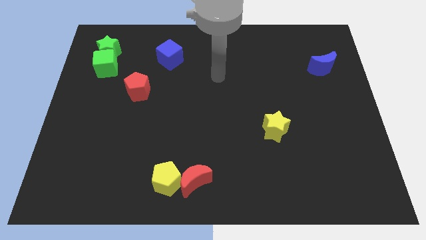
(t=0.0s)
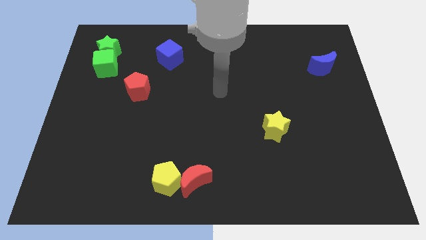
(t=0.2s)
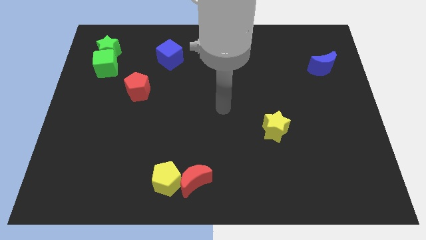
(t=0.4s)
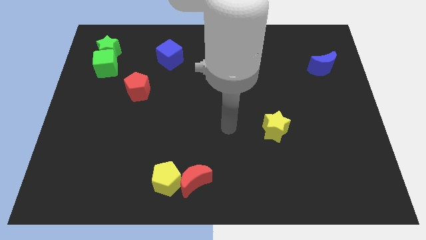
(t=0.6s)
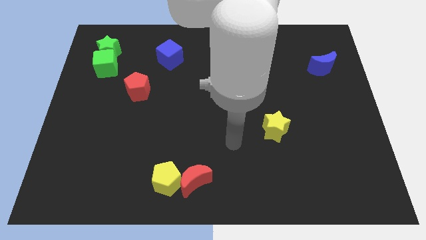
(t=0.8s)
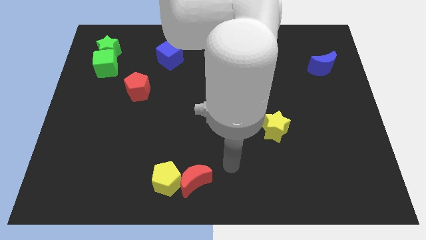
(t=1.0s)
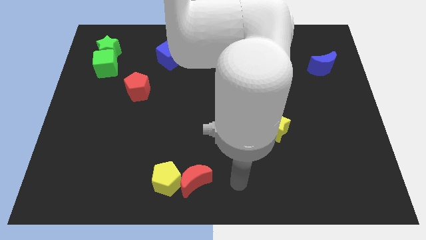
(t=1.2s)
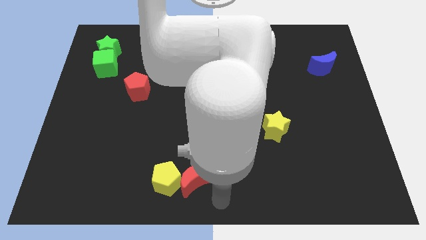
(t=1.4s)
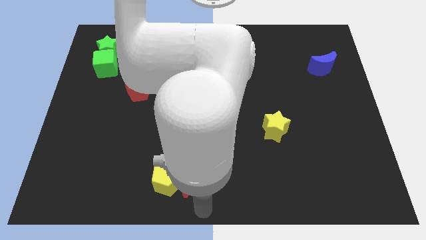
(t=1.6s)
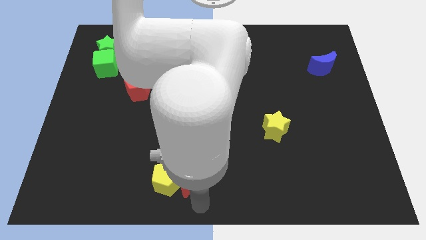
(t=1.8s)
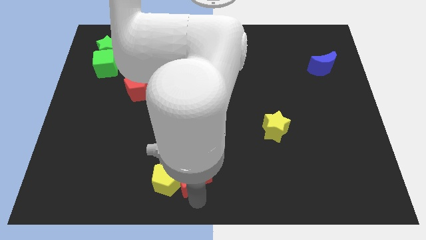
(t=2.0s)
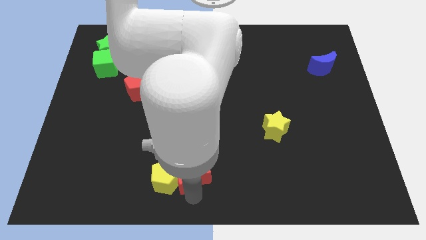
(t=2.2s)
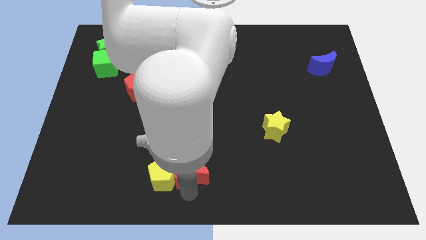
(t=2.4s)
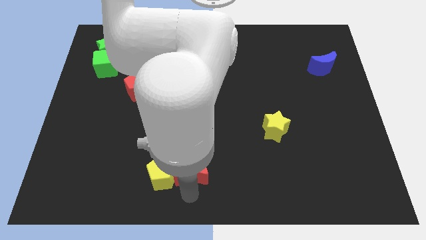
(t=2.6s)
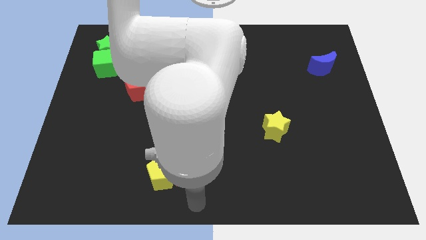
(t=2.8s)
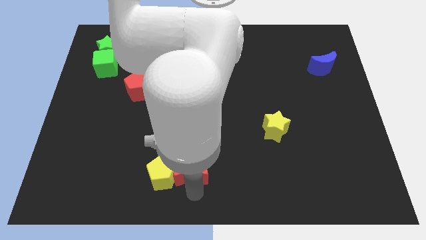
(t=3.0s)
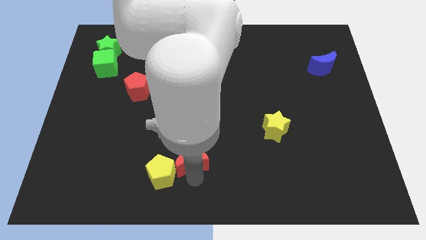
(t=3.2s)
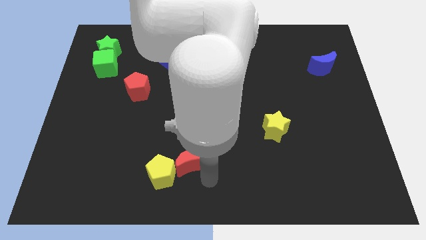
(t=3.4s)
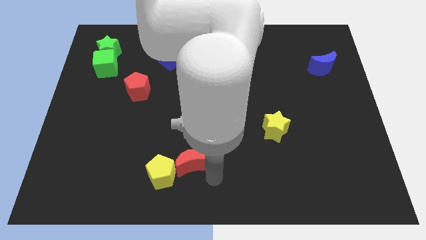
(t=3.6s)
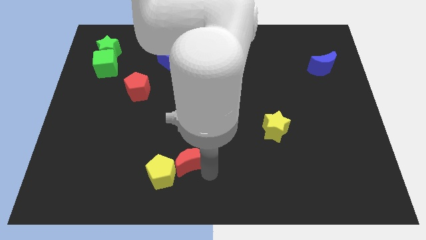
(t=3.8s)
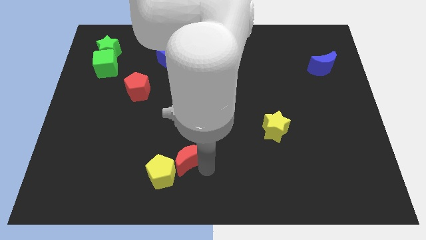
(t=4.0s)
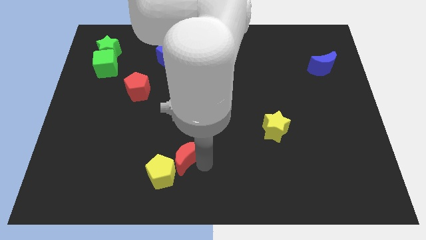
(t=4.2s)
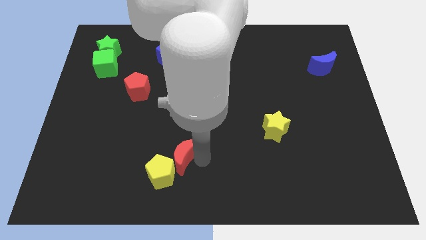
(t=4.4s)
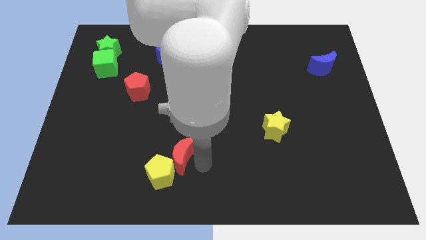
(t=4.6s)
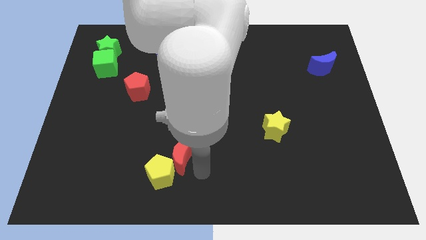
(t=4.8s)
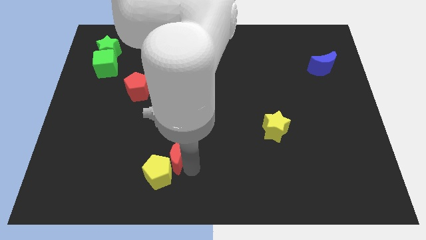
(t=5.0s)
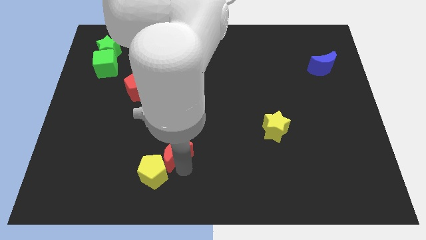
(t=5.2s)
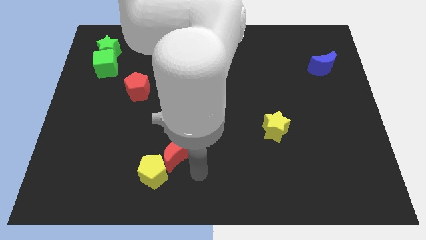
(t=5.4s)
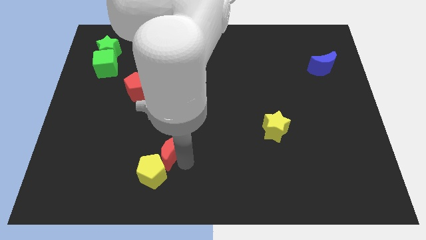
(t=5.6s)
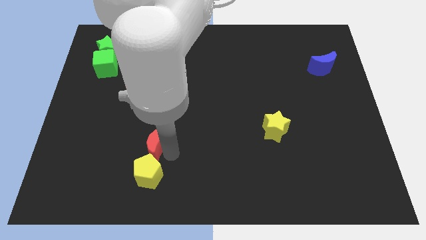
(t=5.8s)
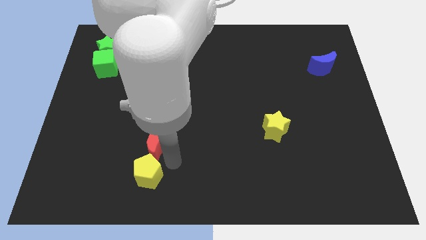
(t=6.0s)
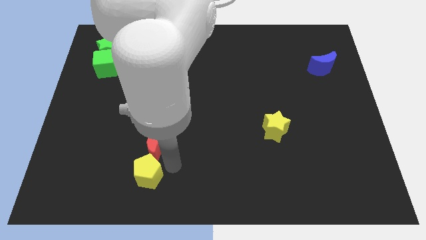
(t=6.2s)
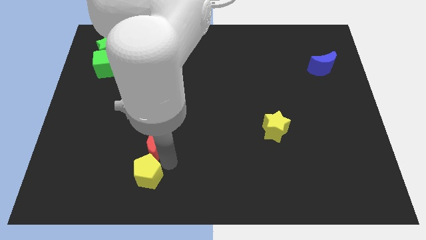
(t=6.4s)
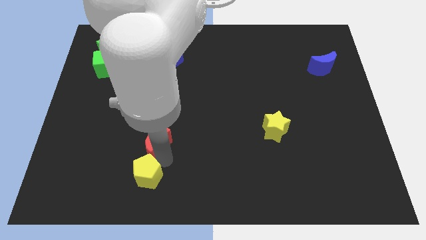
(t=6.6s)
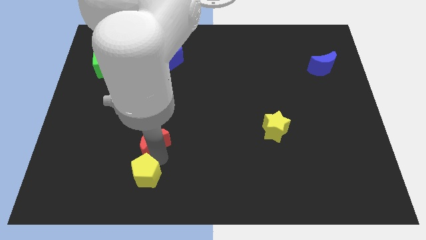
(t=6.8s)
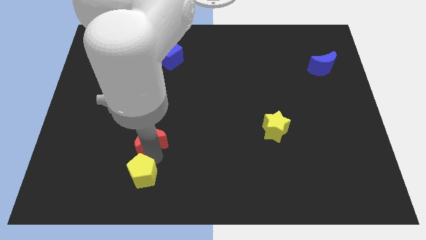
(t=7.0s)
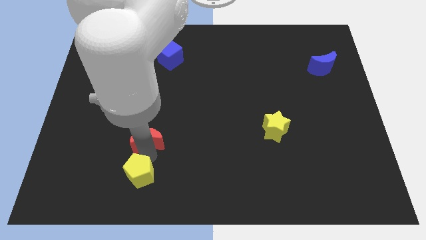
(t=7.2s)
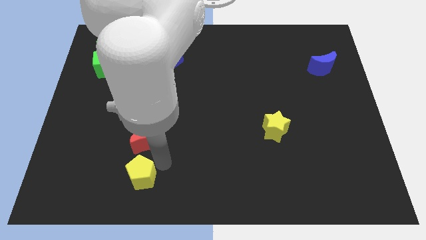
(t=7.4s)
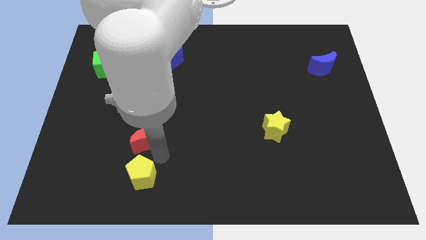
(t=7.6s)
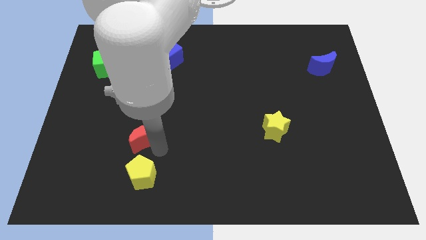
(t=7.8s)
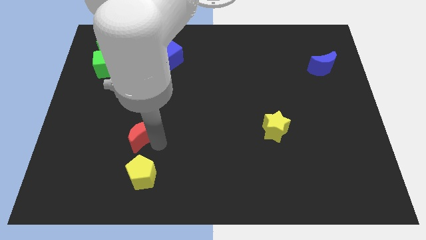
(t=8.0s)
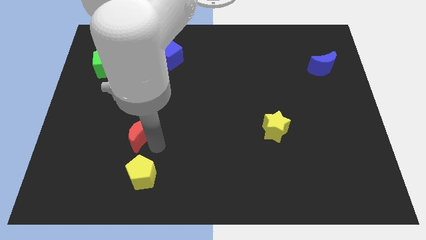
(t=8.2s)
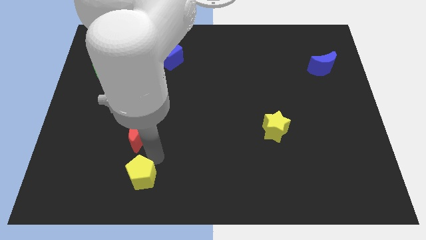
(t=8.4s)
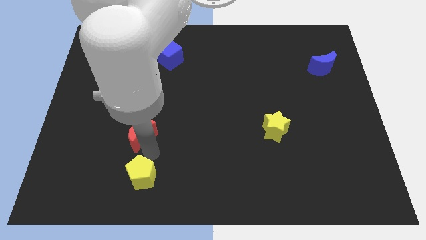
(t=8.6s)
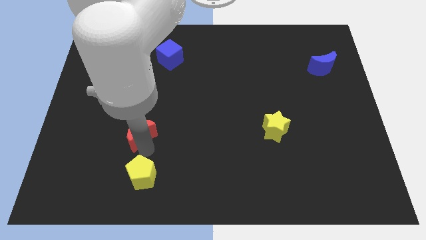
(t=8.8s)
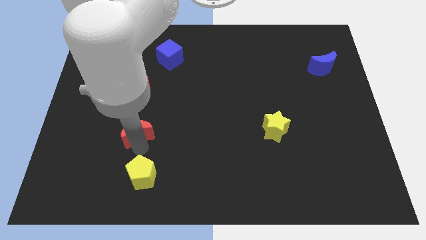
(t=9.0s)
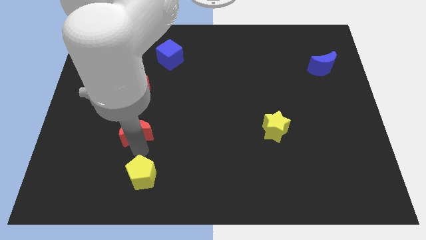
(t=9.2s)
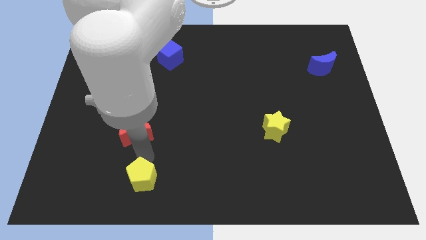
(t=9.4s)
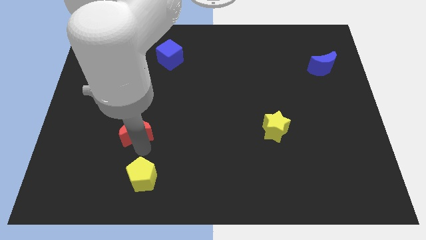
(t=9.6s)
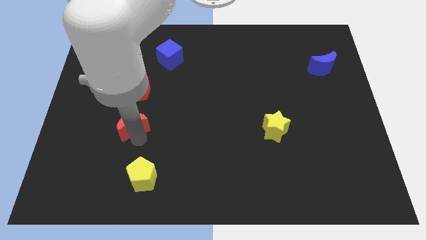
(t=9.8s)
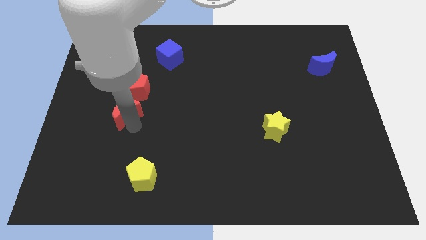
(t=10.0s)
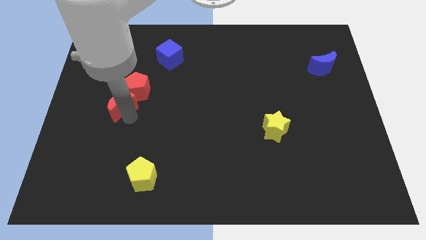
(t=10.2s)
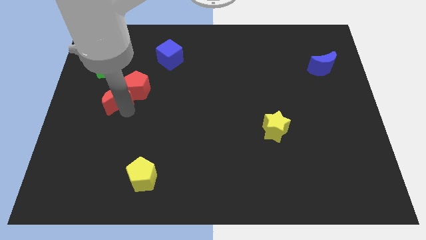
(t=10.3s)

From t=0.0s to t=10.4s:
move the red moon left of the red pentagon

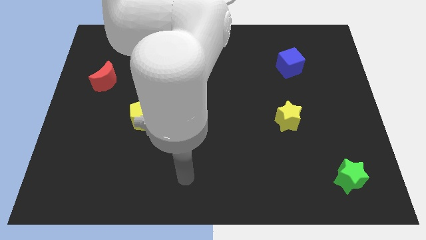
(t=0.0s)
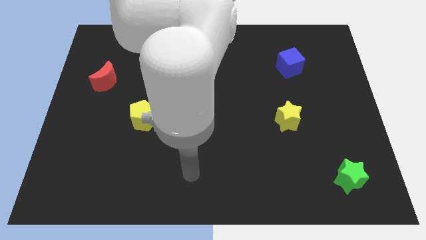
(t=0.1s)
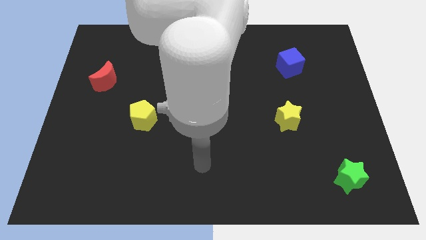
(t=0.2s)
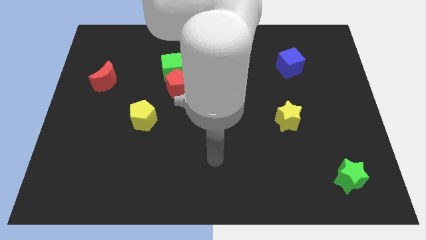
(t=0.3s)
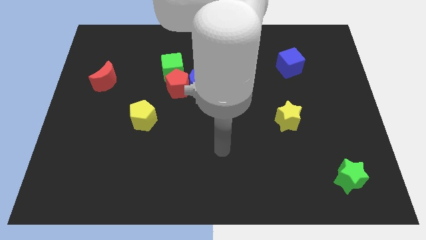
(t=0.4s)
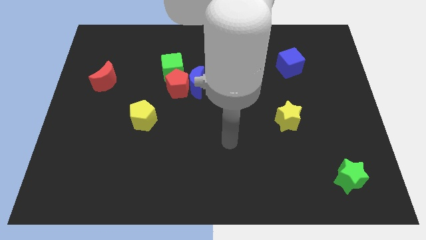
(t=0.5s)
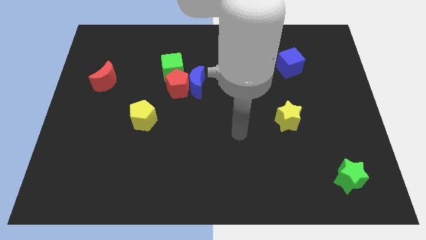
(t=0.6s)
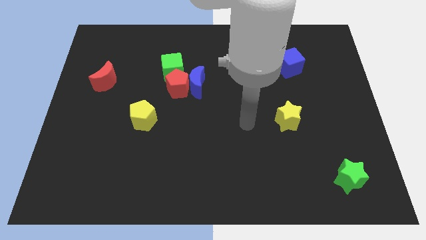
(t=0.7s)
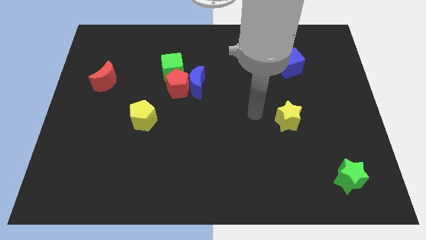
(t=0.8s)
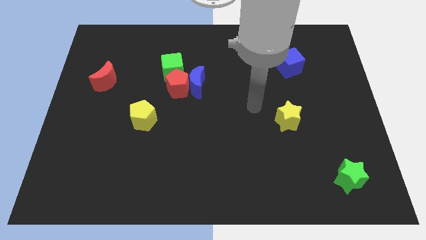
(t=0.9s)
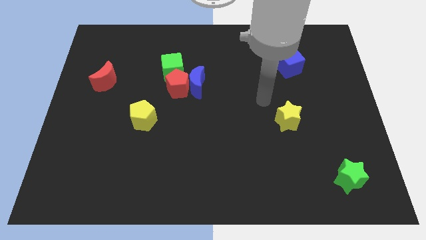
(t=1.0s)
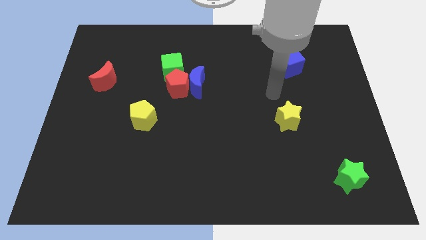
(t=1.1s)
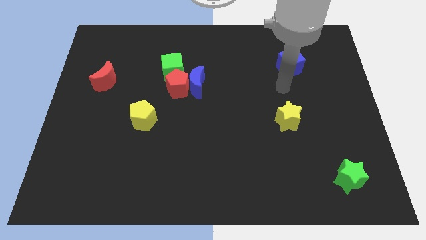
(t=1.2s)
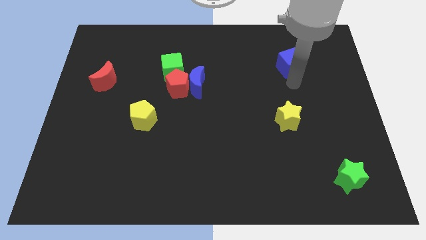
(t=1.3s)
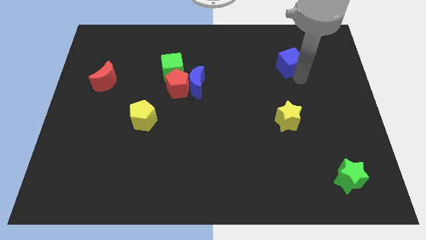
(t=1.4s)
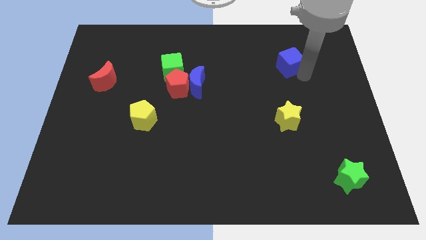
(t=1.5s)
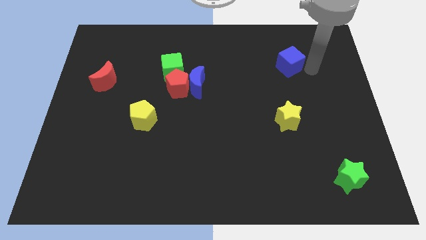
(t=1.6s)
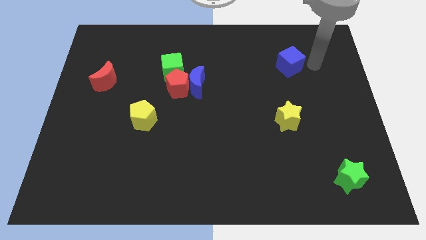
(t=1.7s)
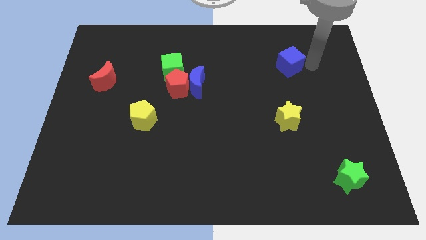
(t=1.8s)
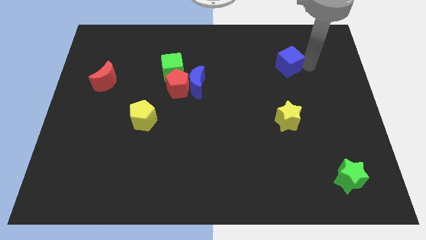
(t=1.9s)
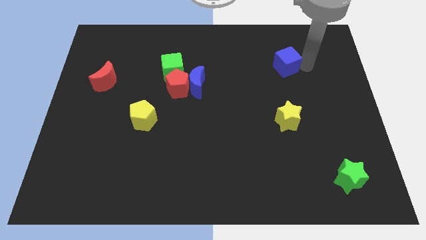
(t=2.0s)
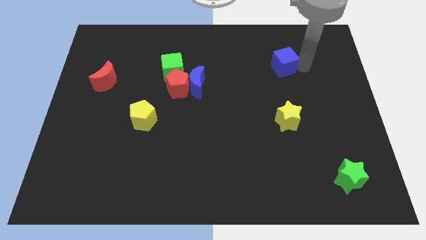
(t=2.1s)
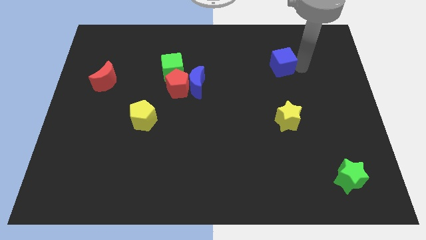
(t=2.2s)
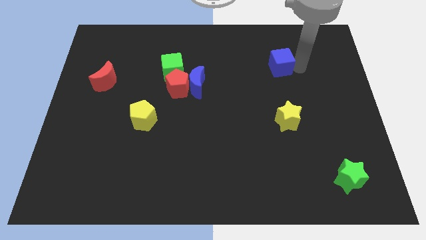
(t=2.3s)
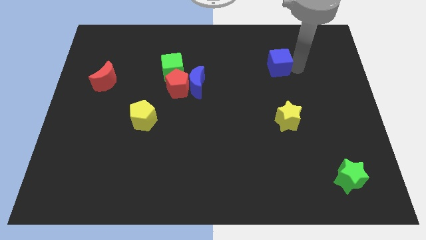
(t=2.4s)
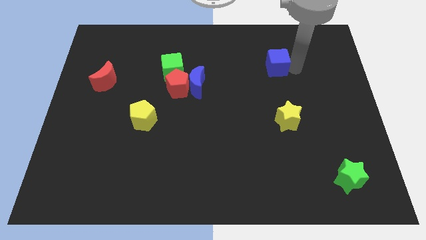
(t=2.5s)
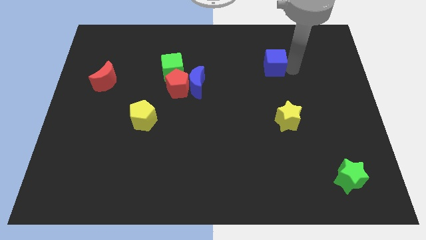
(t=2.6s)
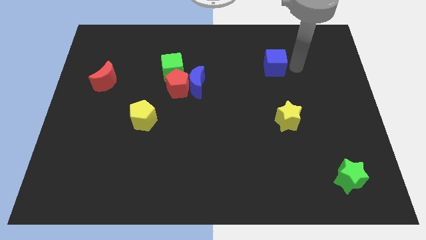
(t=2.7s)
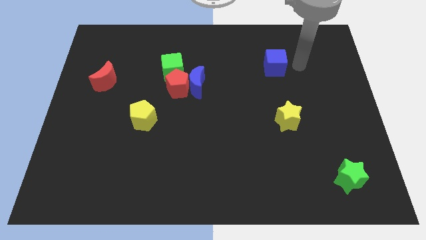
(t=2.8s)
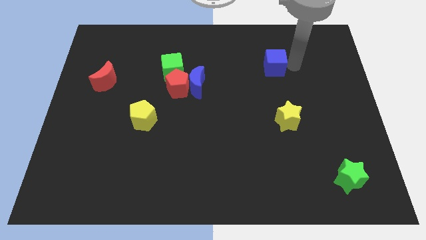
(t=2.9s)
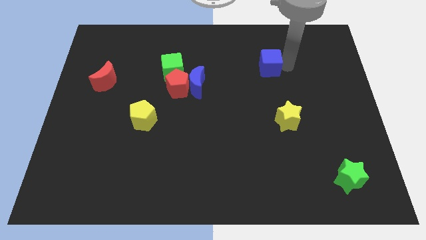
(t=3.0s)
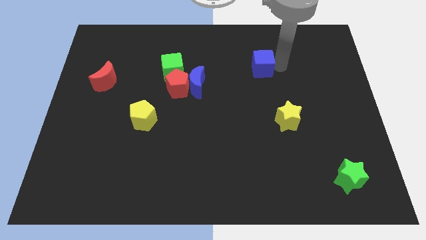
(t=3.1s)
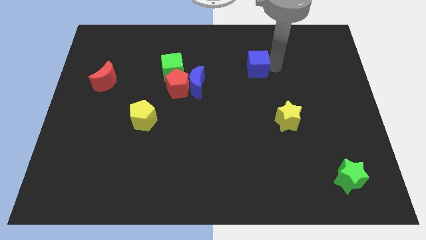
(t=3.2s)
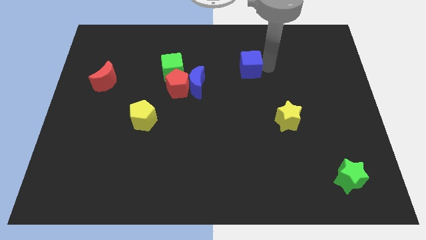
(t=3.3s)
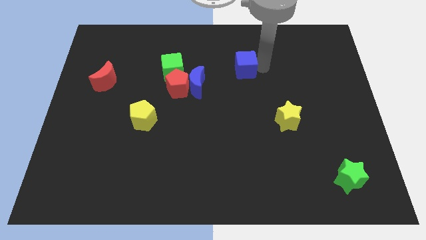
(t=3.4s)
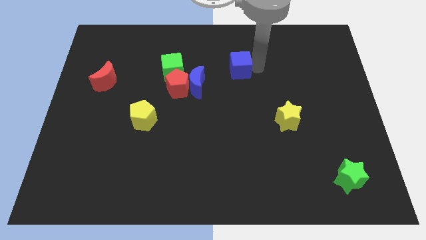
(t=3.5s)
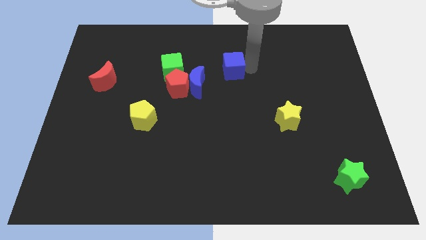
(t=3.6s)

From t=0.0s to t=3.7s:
slide the blue cube to the right side of the green cube
